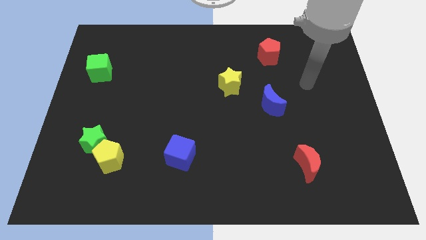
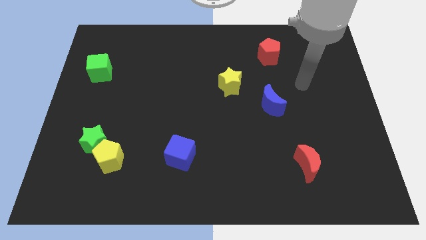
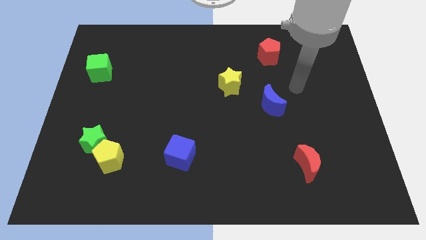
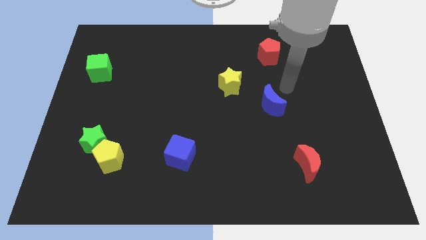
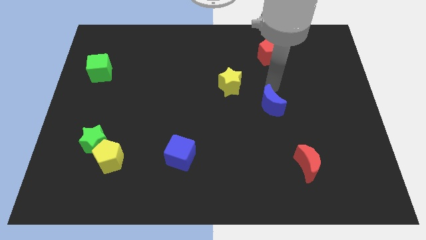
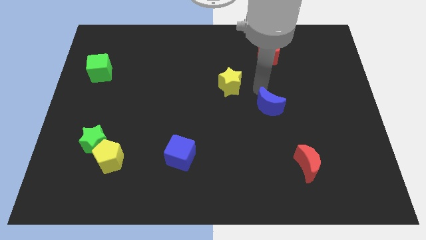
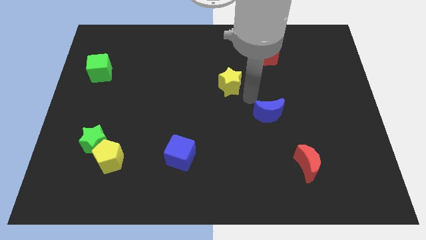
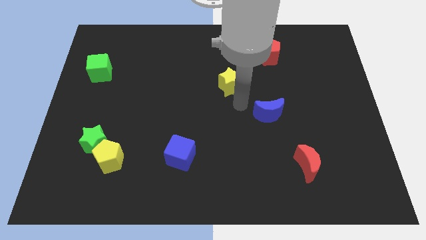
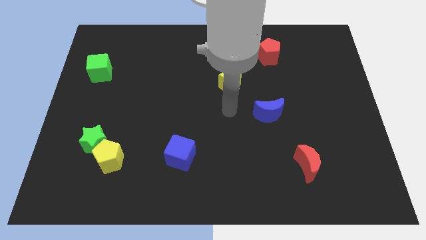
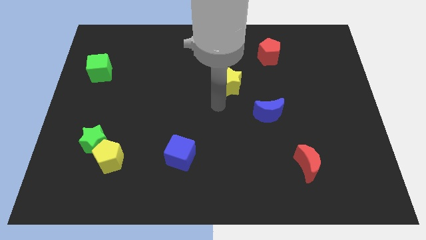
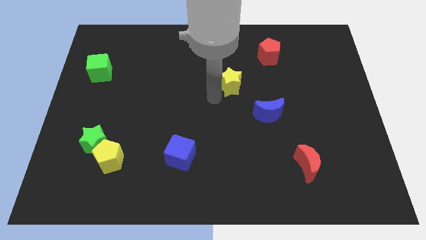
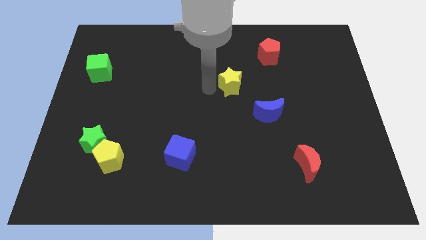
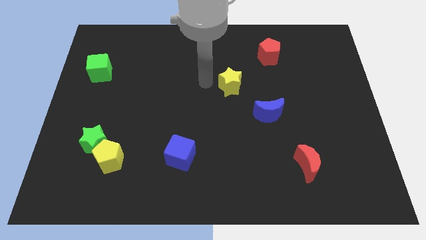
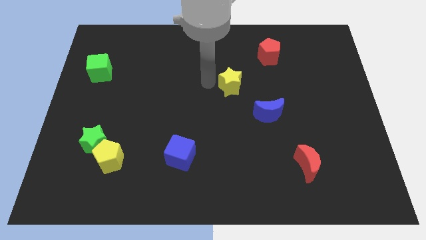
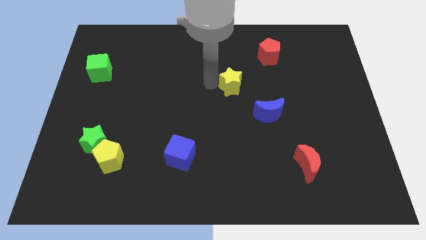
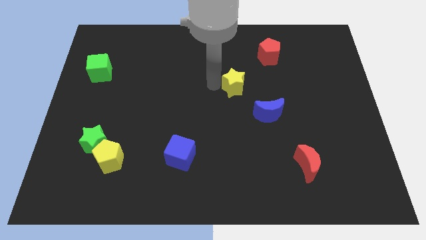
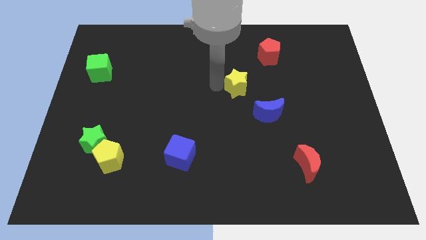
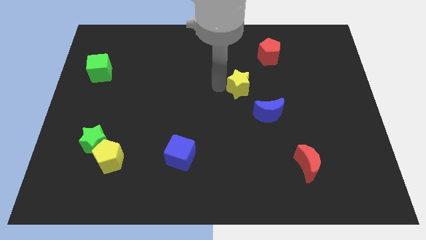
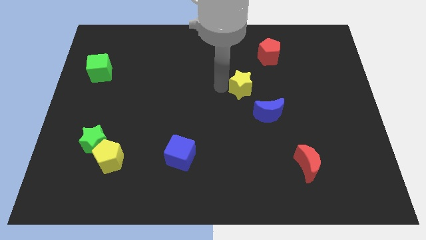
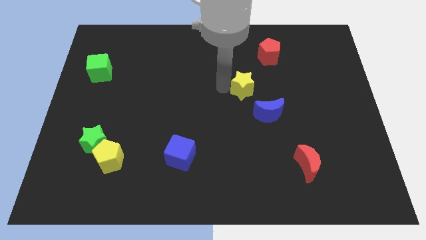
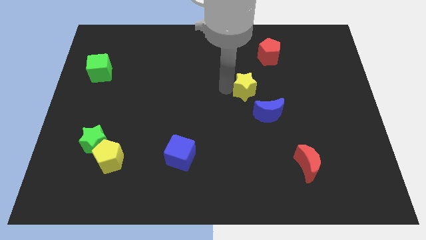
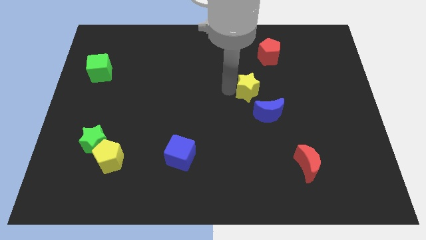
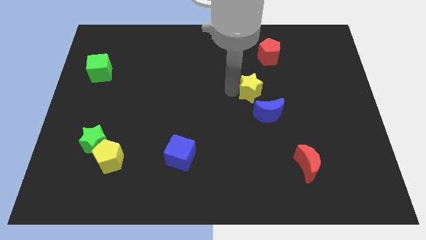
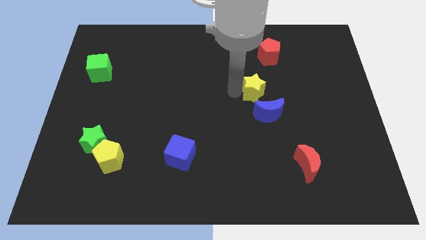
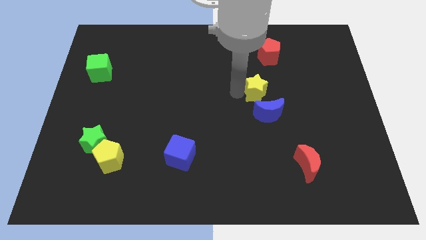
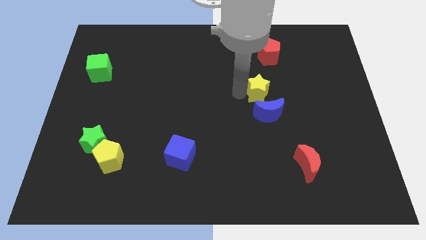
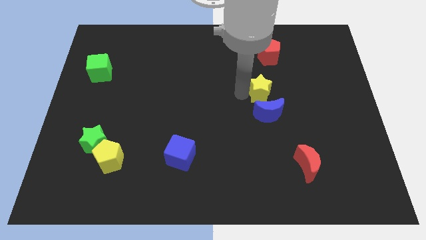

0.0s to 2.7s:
slightly slide the yellow star to the right

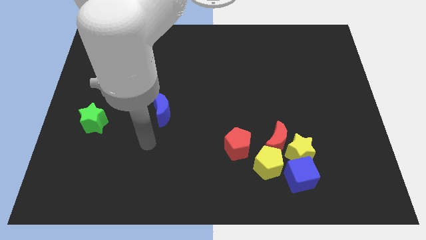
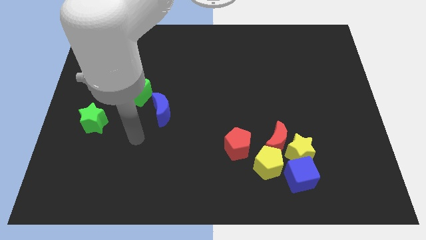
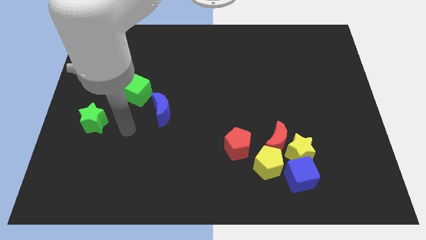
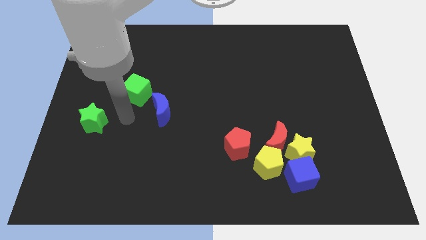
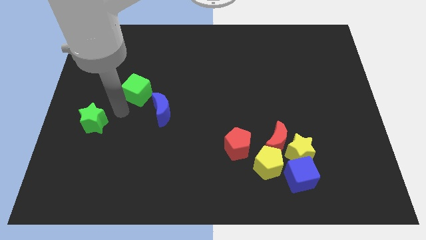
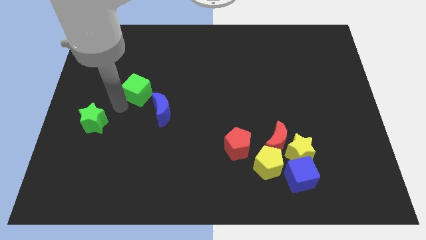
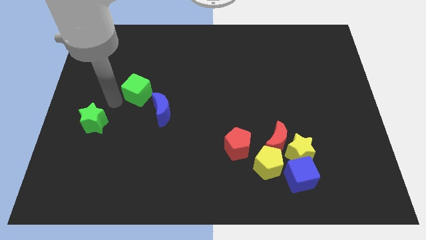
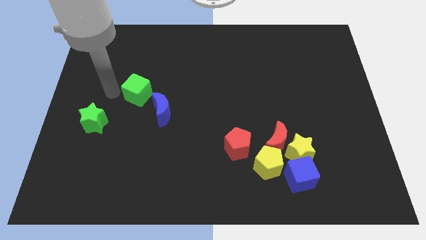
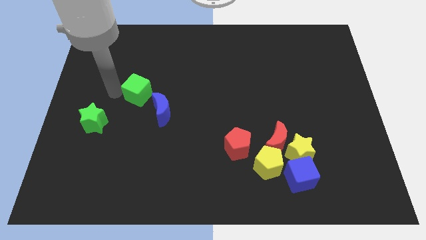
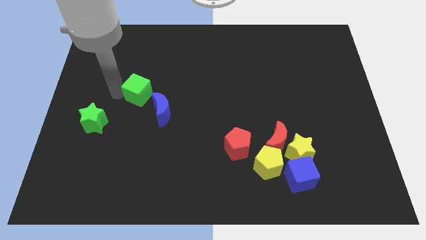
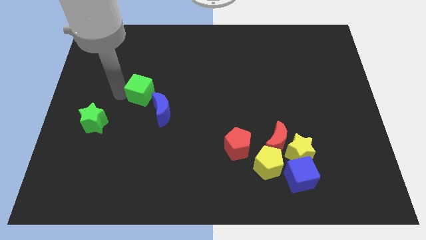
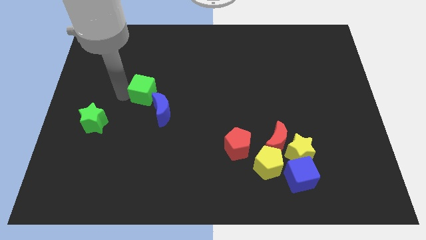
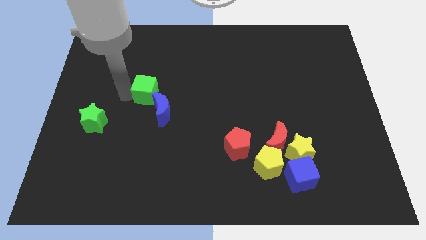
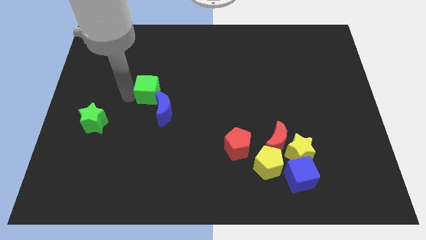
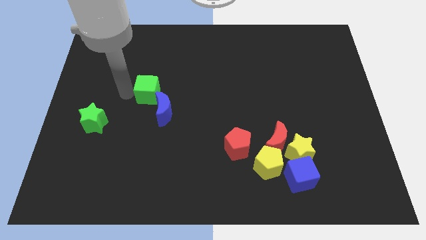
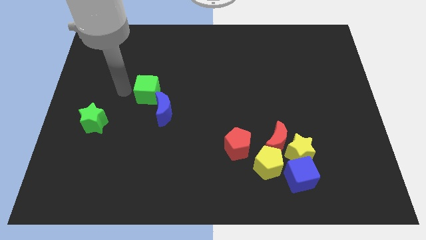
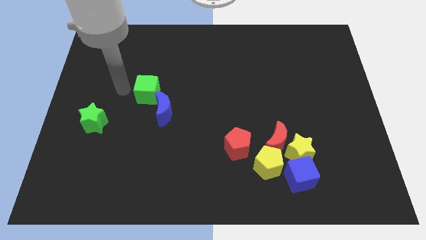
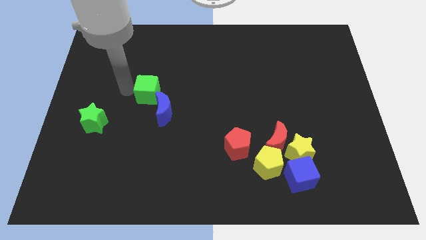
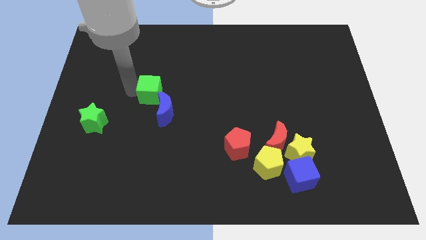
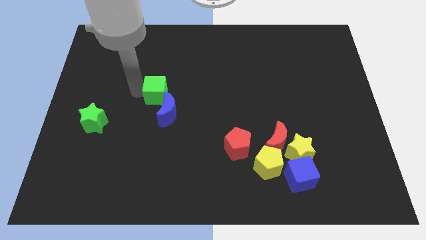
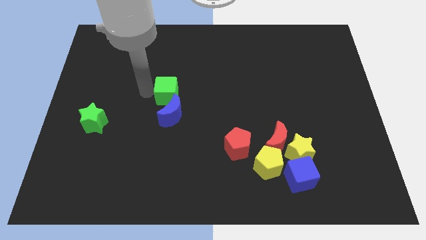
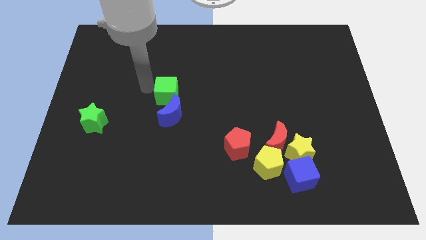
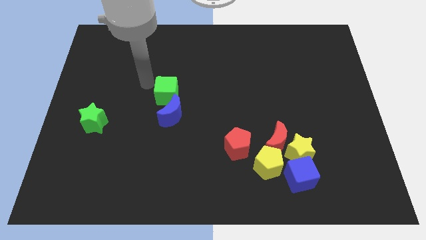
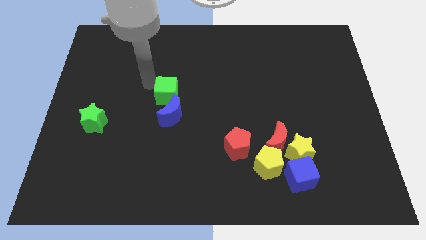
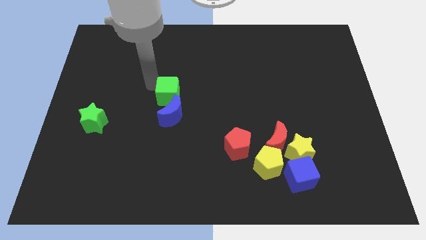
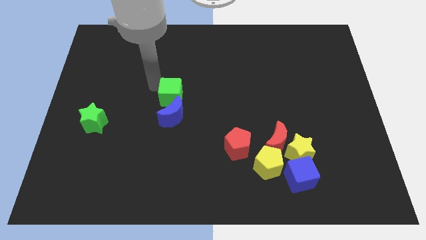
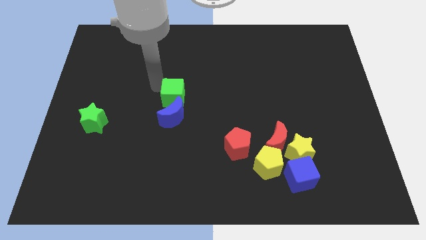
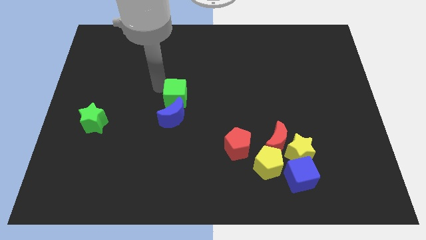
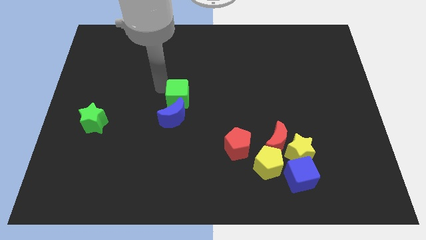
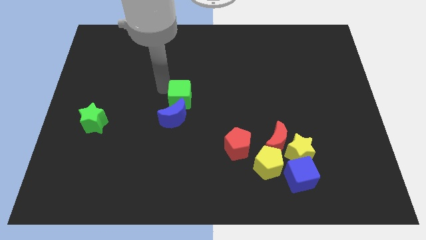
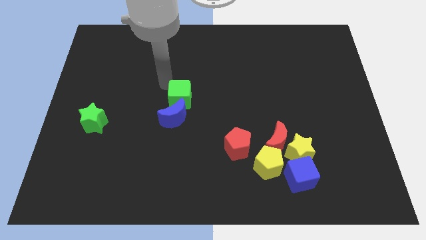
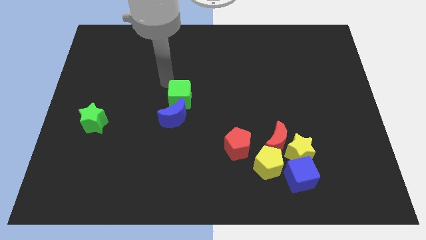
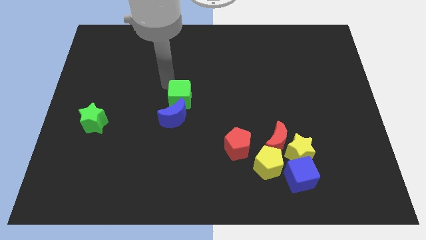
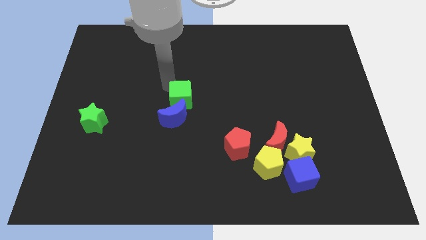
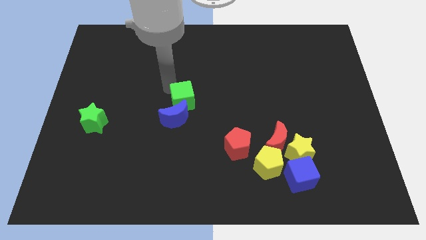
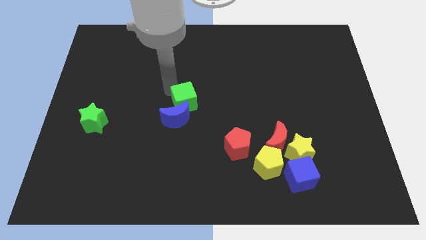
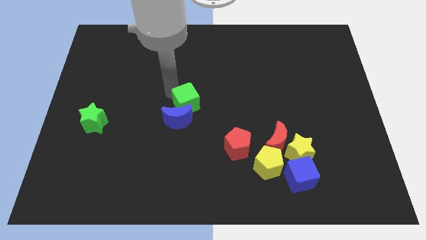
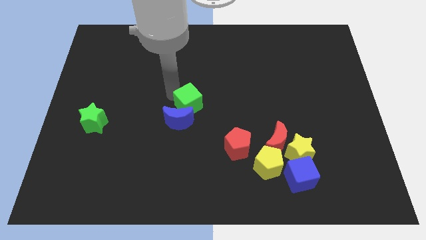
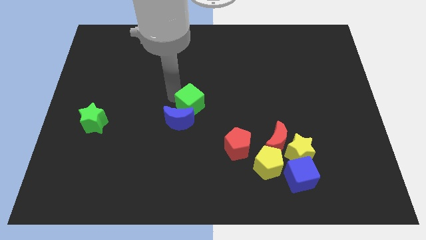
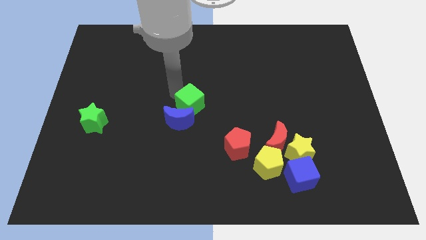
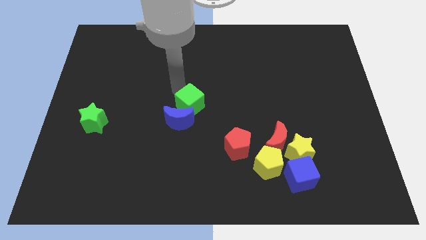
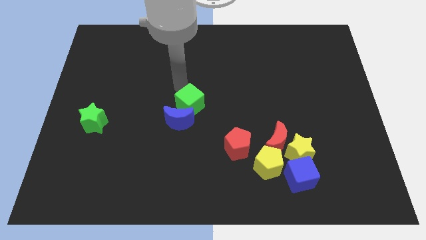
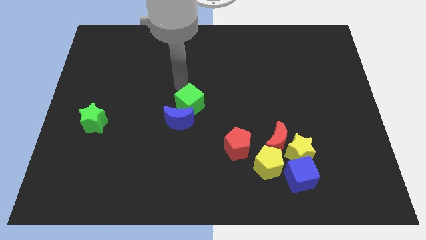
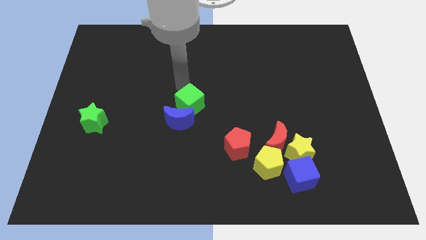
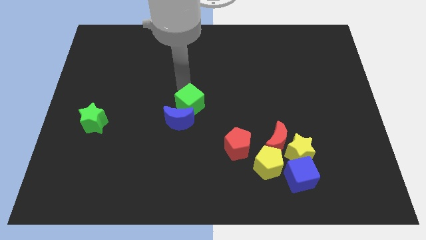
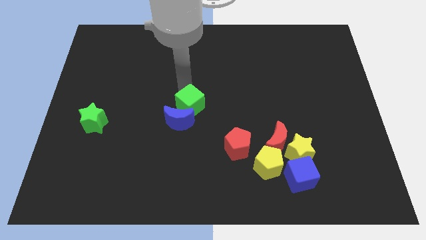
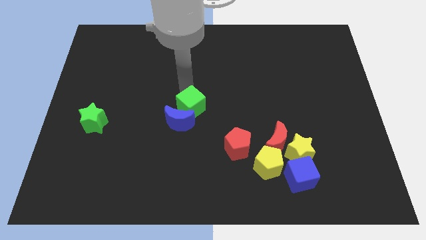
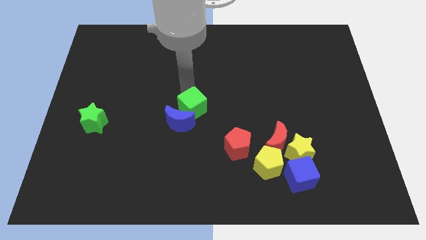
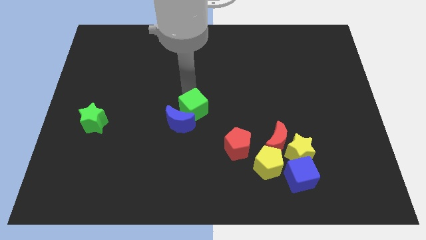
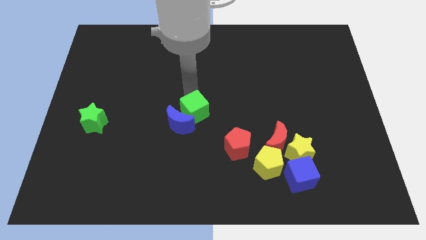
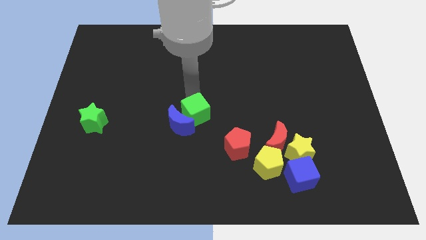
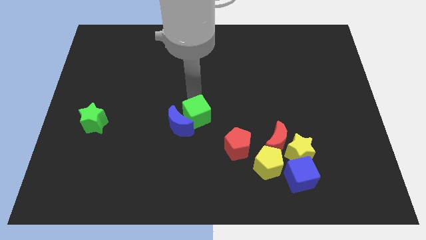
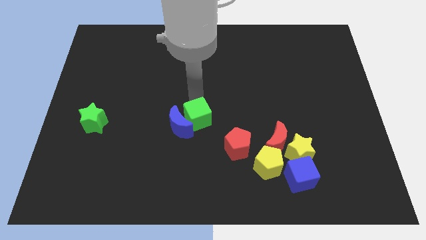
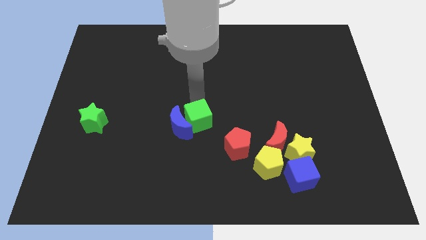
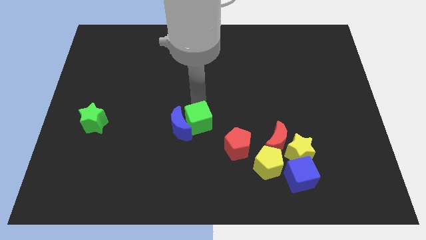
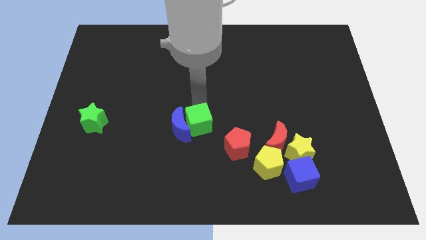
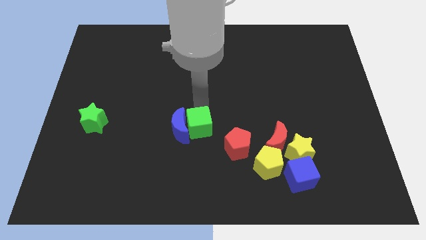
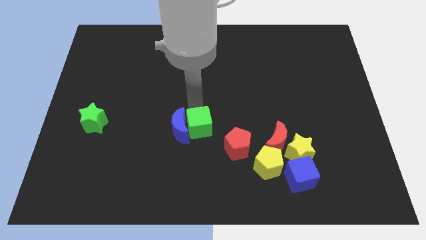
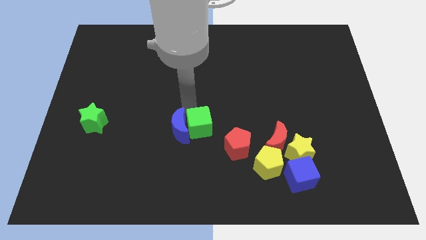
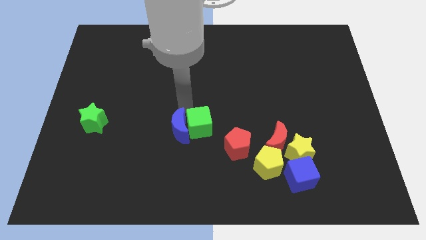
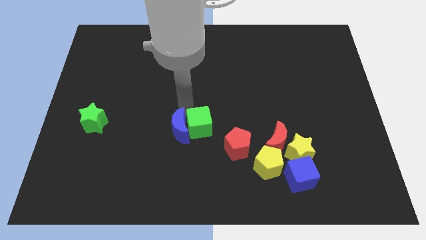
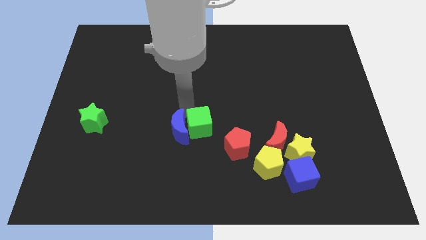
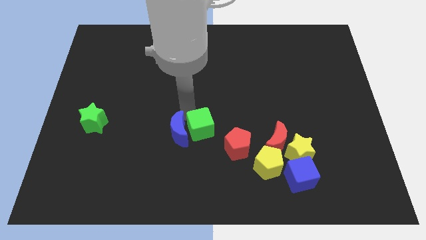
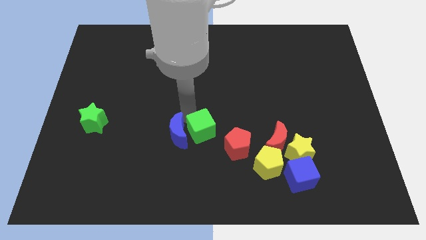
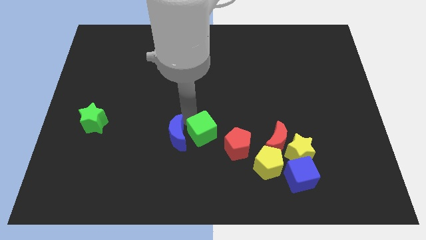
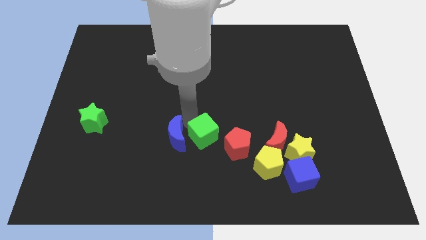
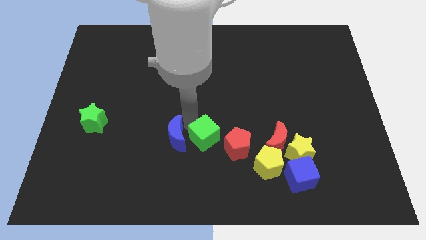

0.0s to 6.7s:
push the green cube down and right
